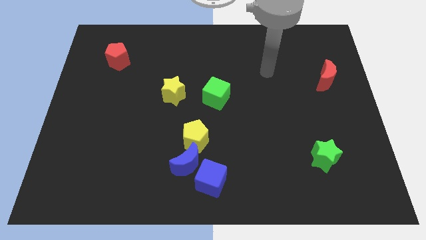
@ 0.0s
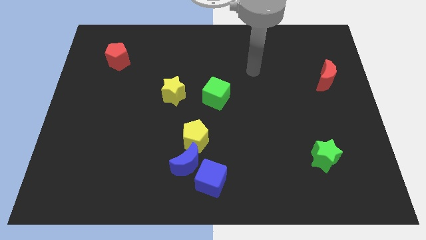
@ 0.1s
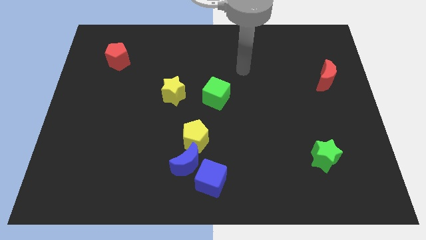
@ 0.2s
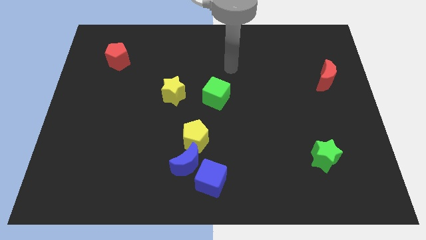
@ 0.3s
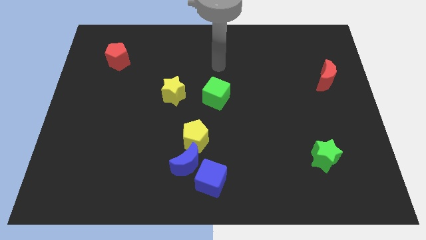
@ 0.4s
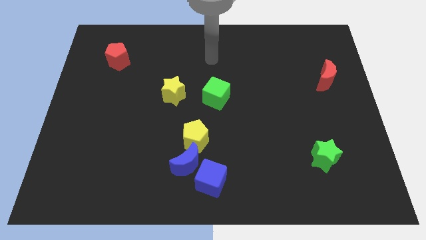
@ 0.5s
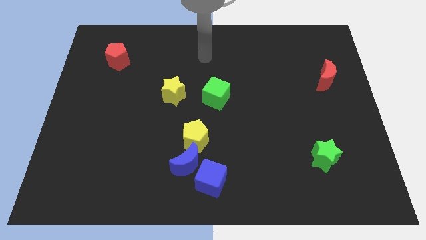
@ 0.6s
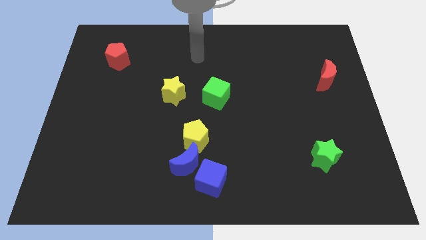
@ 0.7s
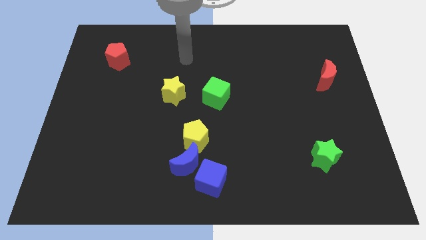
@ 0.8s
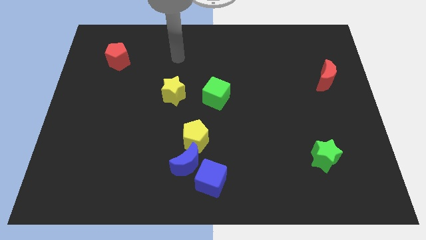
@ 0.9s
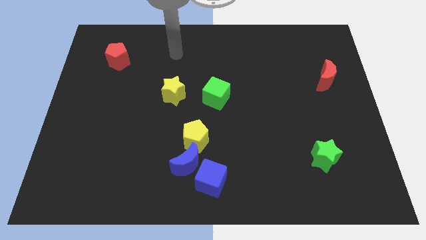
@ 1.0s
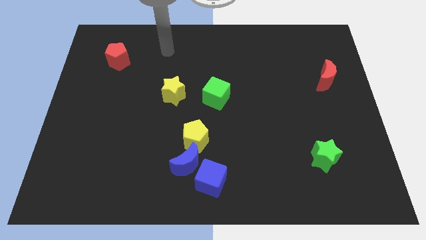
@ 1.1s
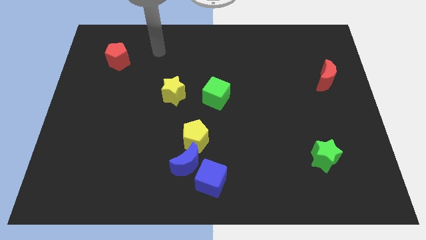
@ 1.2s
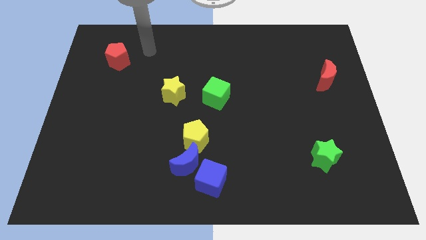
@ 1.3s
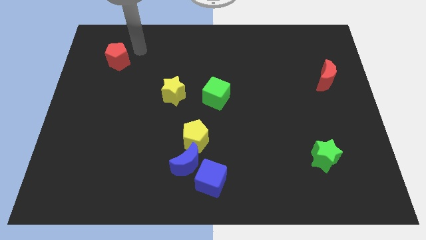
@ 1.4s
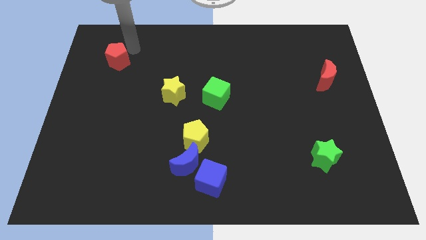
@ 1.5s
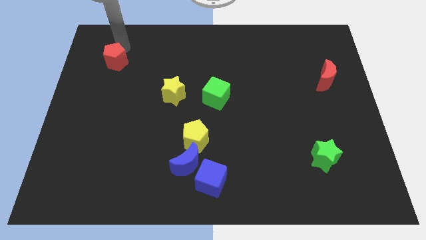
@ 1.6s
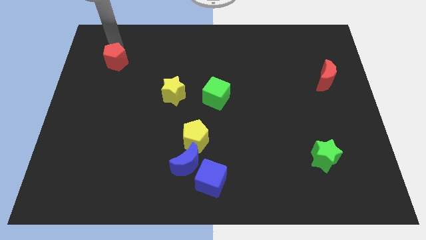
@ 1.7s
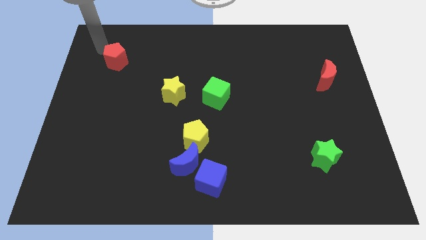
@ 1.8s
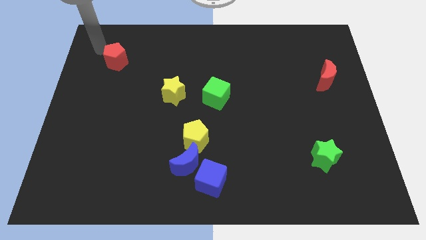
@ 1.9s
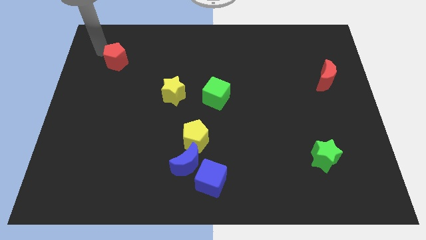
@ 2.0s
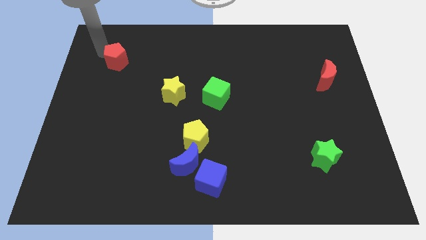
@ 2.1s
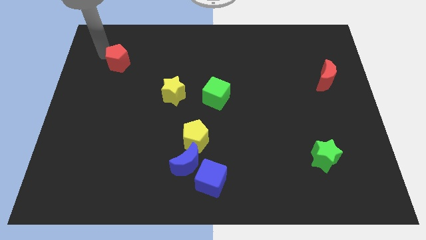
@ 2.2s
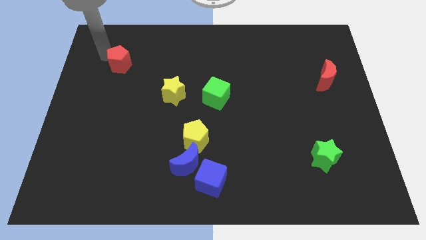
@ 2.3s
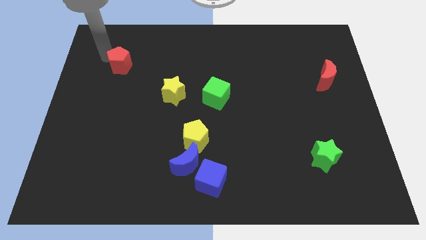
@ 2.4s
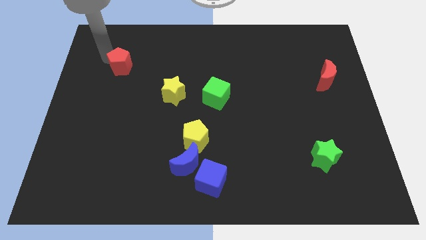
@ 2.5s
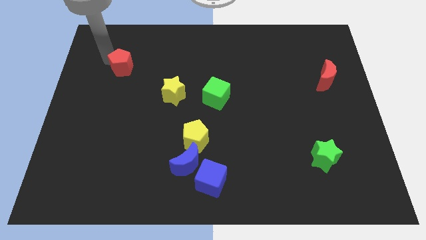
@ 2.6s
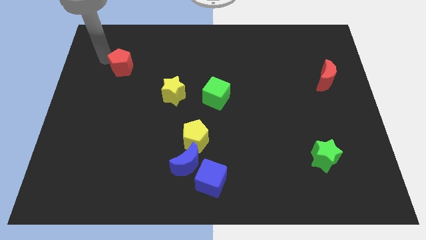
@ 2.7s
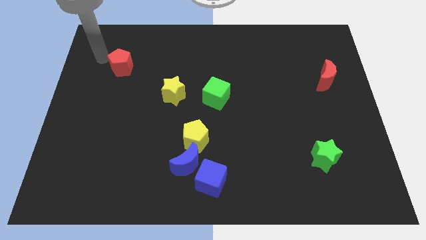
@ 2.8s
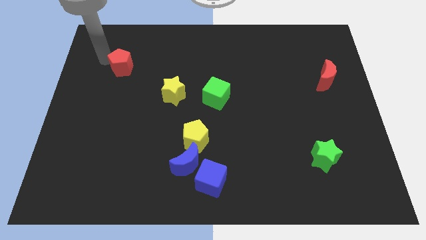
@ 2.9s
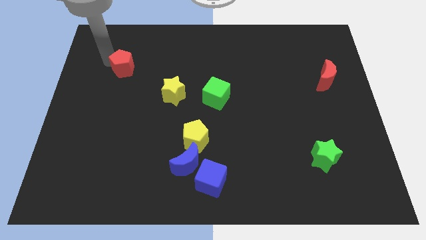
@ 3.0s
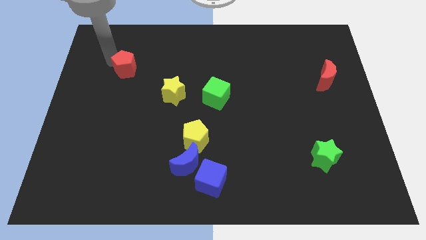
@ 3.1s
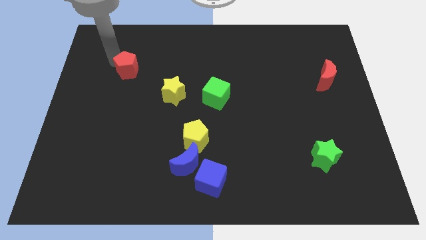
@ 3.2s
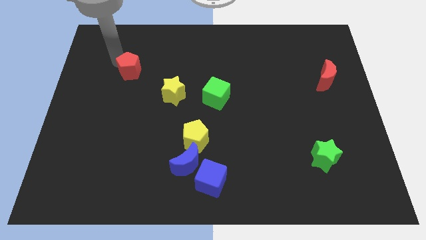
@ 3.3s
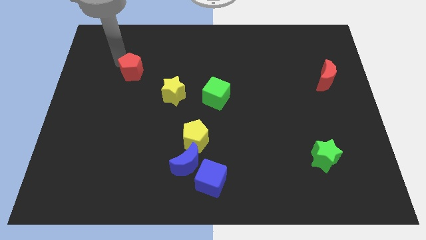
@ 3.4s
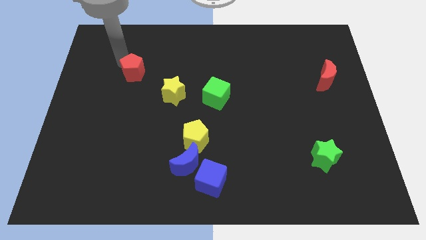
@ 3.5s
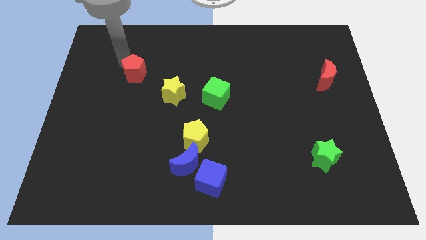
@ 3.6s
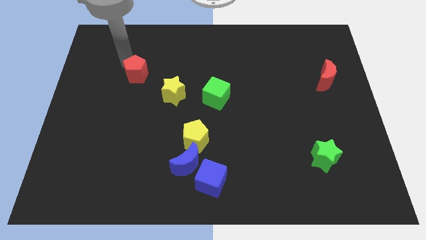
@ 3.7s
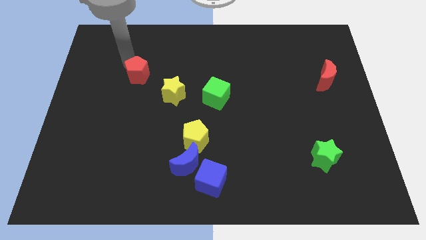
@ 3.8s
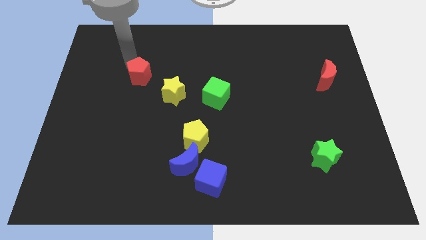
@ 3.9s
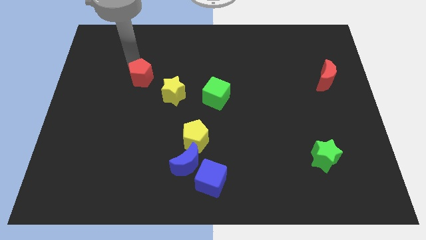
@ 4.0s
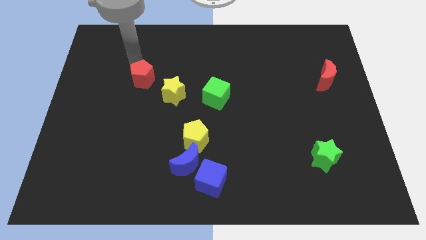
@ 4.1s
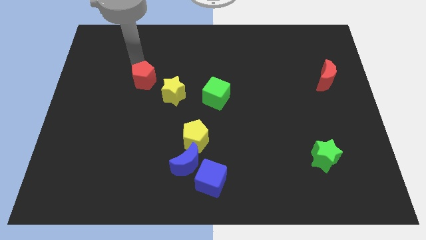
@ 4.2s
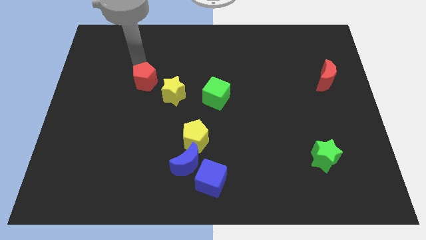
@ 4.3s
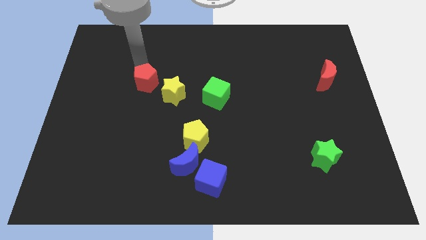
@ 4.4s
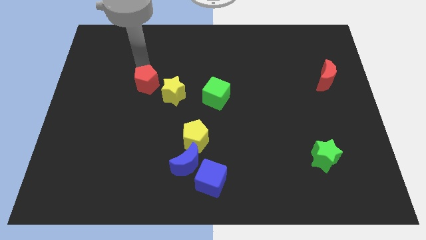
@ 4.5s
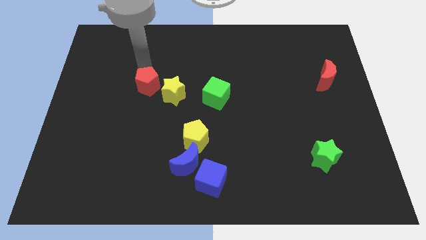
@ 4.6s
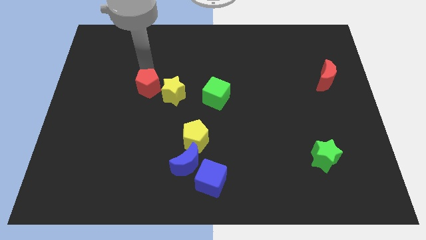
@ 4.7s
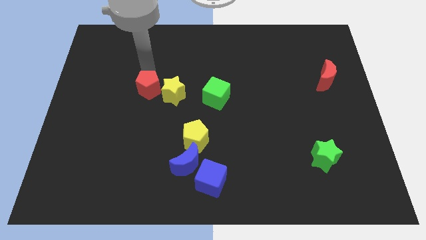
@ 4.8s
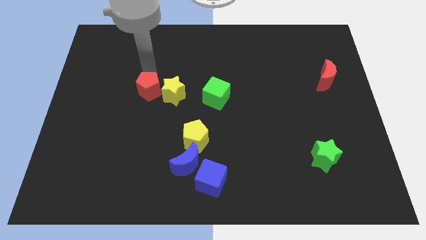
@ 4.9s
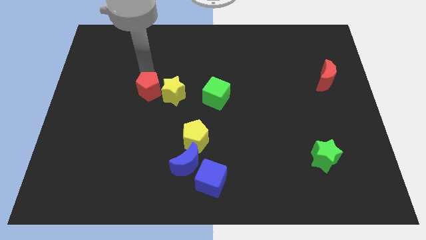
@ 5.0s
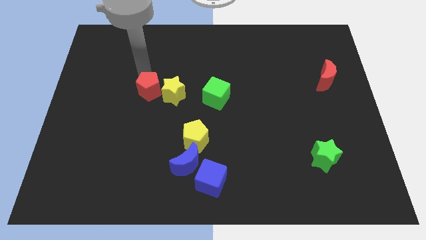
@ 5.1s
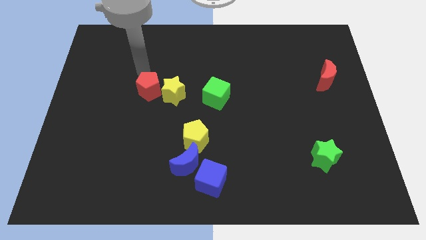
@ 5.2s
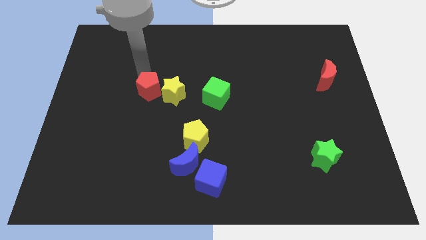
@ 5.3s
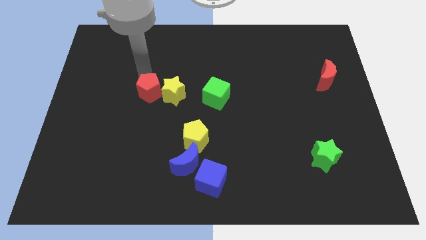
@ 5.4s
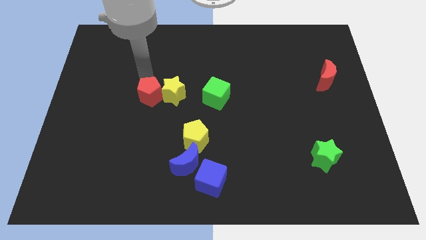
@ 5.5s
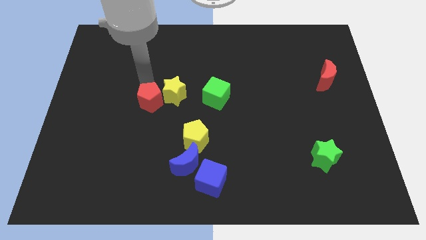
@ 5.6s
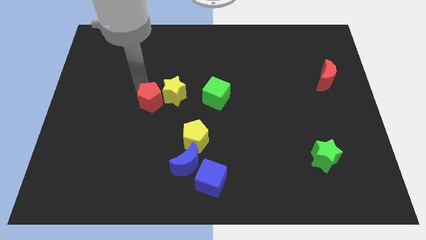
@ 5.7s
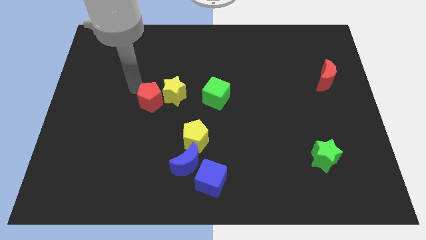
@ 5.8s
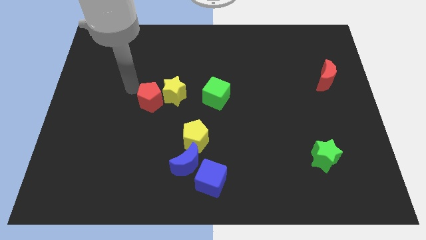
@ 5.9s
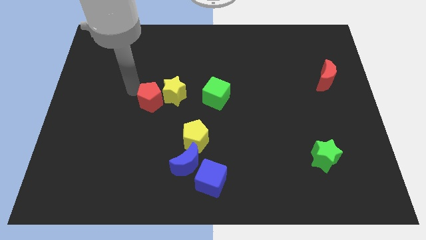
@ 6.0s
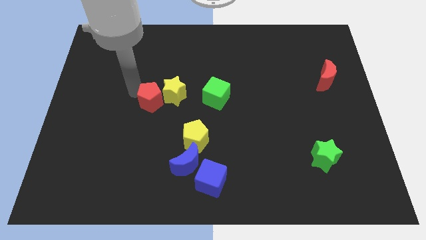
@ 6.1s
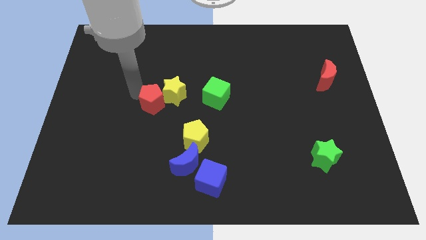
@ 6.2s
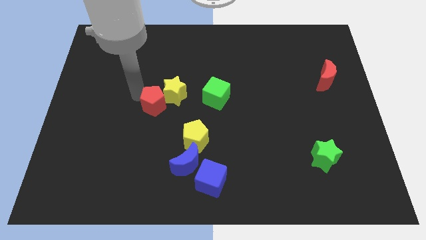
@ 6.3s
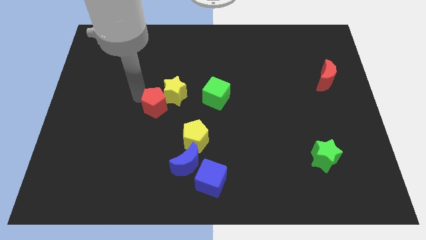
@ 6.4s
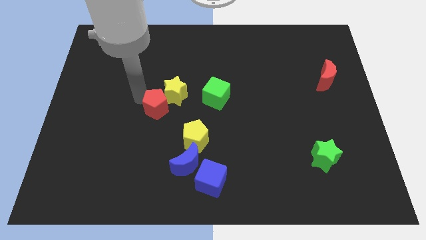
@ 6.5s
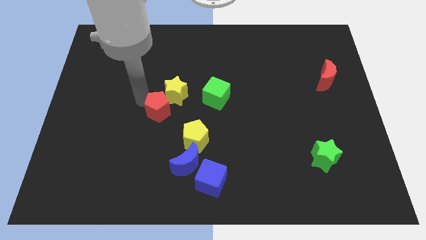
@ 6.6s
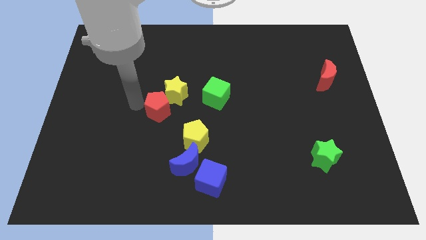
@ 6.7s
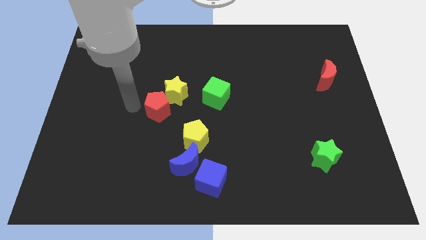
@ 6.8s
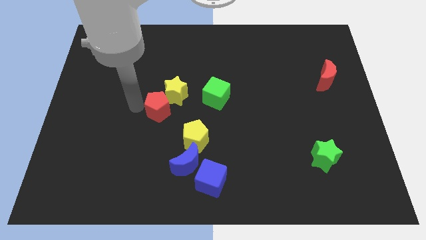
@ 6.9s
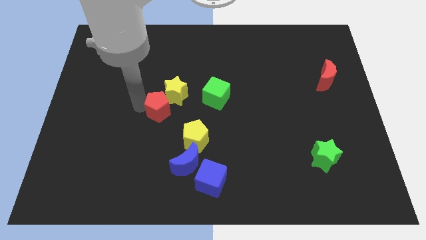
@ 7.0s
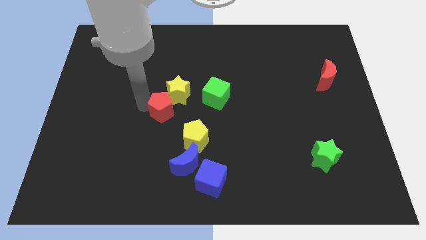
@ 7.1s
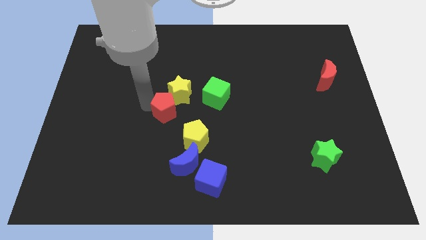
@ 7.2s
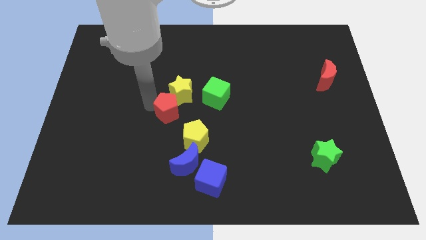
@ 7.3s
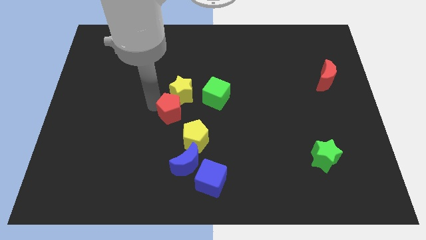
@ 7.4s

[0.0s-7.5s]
move the red pentagon to the bottom left of the green cube

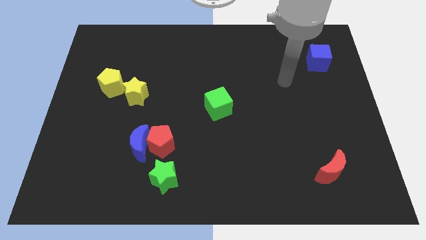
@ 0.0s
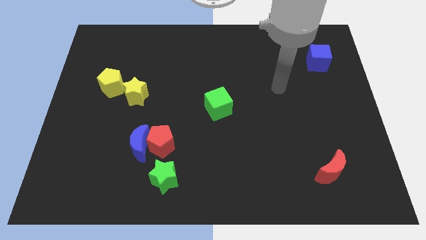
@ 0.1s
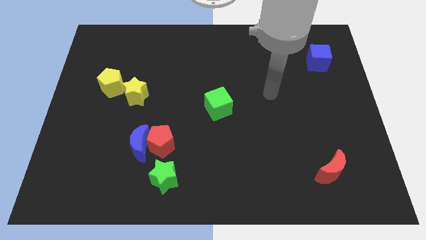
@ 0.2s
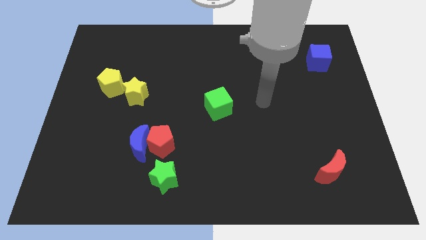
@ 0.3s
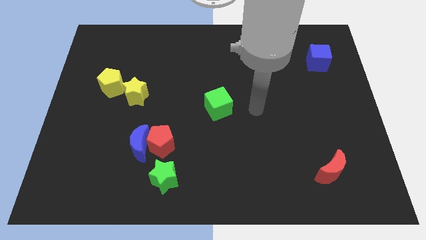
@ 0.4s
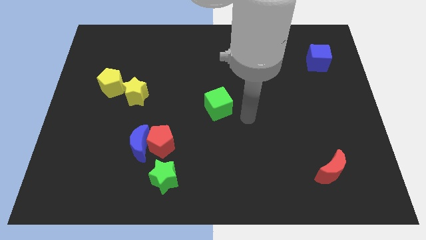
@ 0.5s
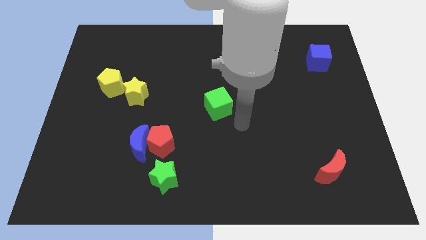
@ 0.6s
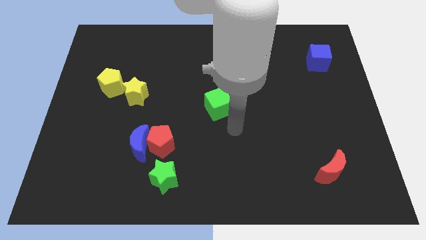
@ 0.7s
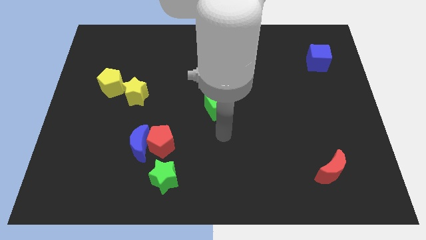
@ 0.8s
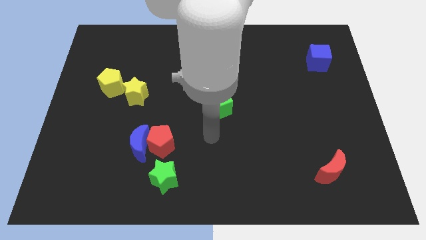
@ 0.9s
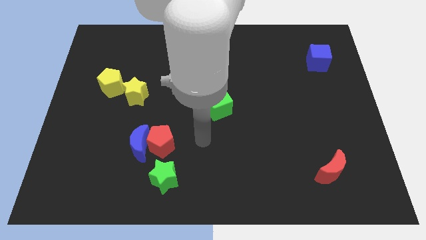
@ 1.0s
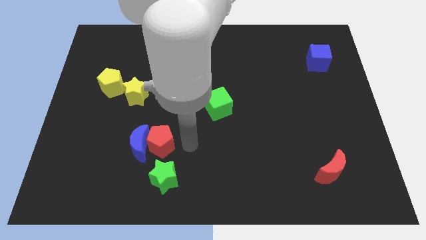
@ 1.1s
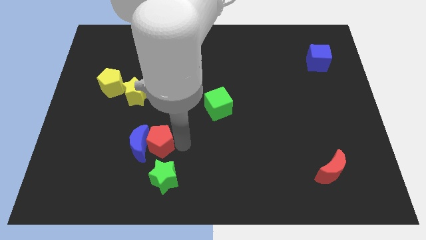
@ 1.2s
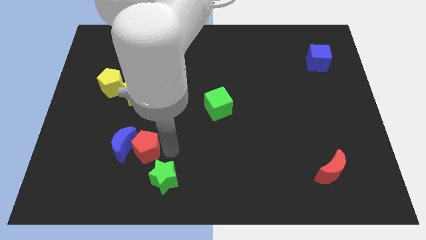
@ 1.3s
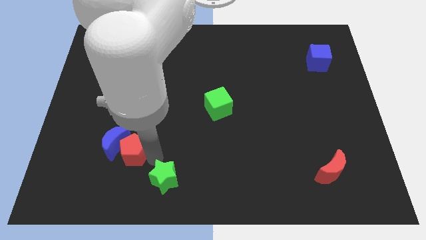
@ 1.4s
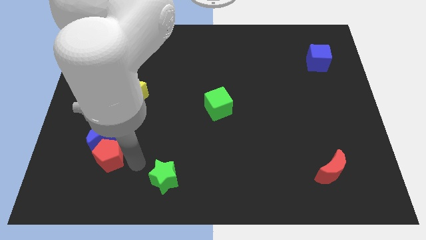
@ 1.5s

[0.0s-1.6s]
slide the blue moon below the yellow pentagon
